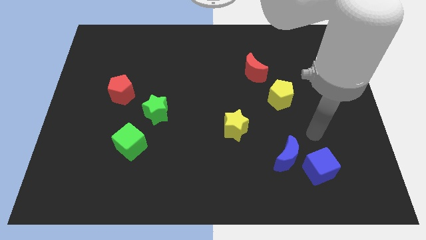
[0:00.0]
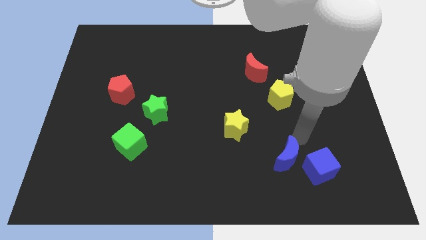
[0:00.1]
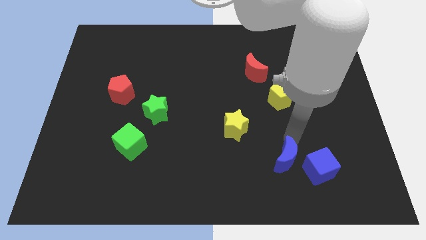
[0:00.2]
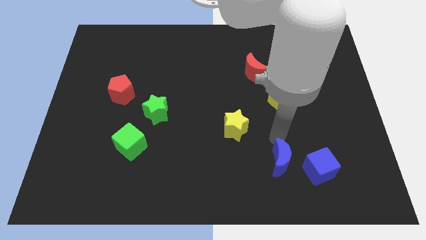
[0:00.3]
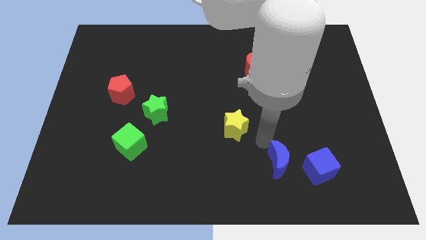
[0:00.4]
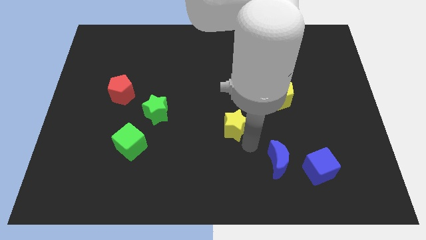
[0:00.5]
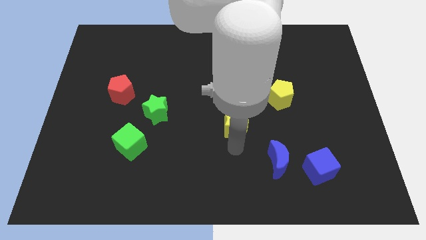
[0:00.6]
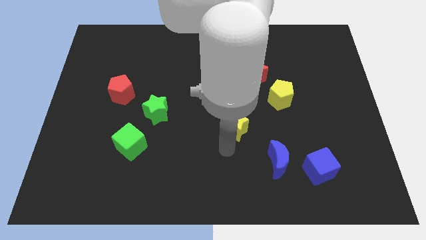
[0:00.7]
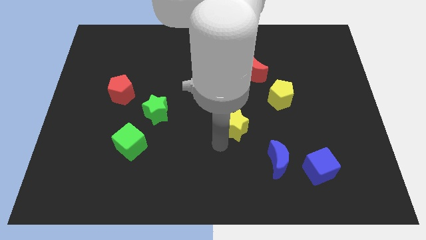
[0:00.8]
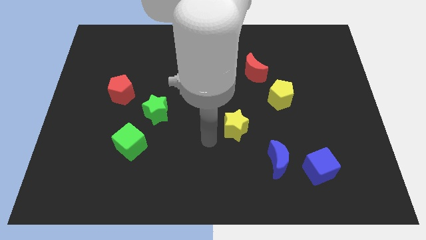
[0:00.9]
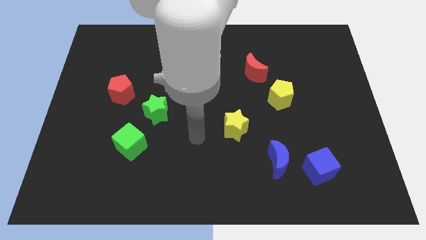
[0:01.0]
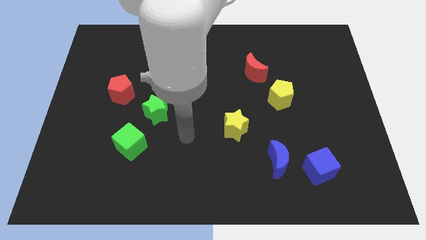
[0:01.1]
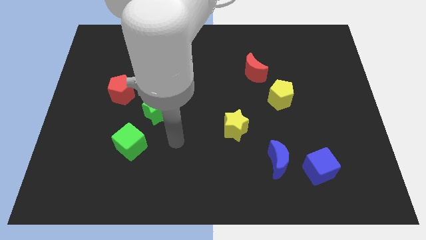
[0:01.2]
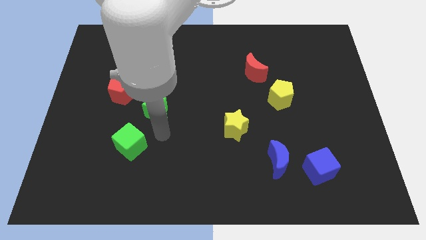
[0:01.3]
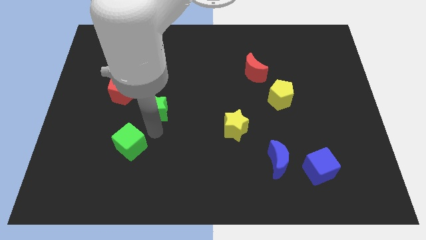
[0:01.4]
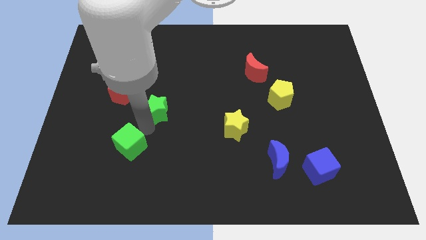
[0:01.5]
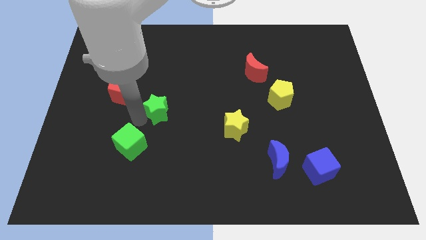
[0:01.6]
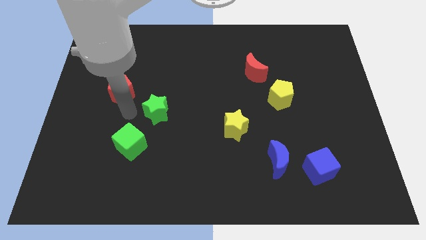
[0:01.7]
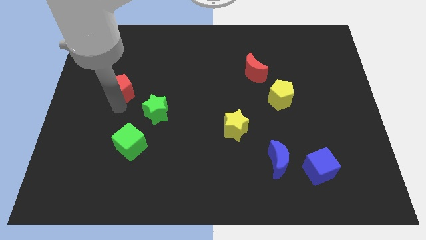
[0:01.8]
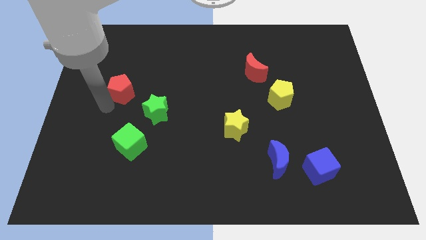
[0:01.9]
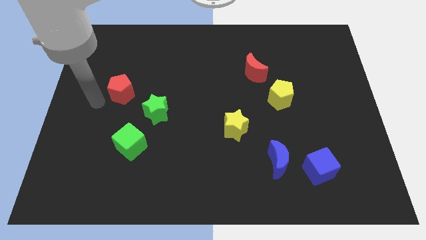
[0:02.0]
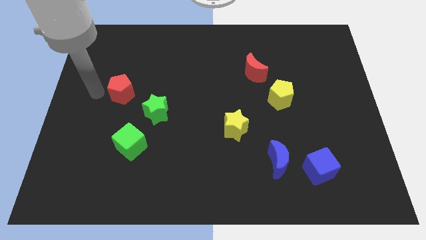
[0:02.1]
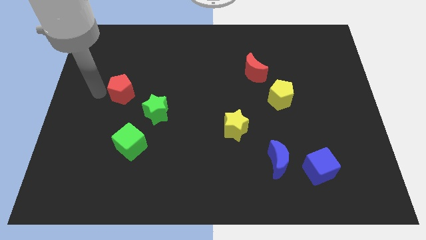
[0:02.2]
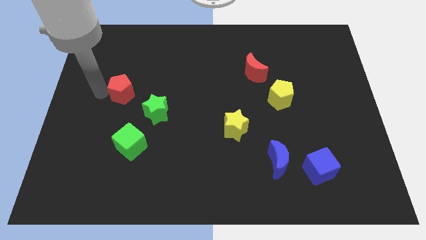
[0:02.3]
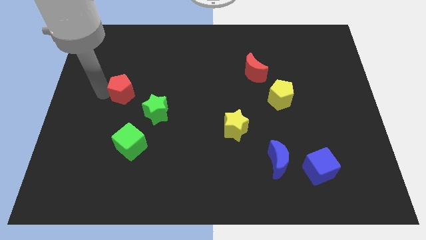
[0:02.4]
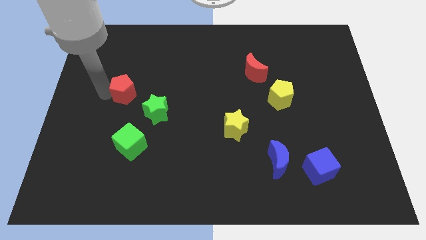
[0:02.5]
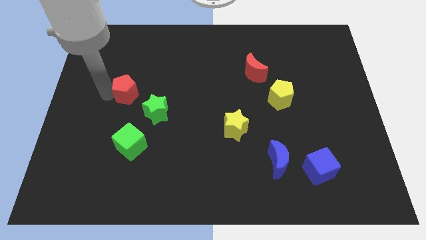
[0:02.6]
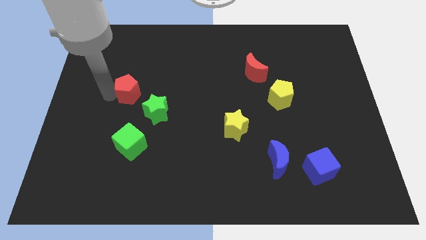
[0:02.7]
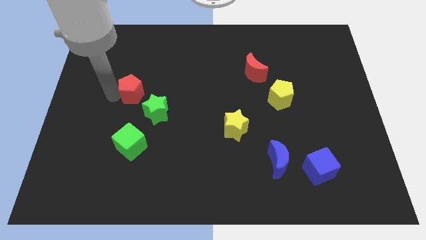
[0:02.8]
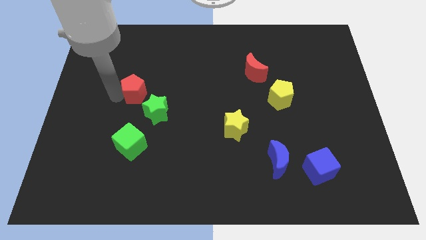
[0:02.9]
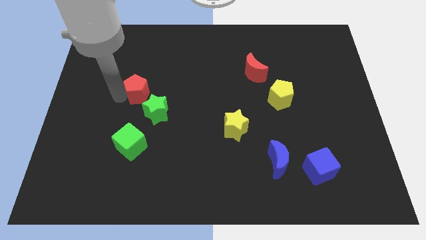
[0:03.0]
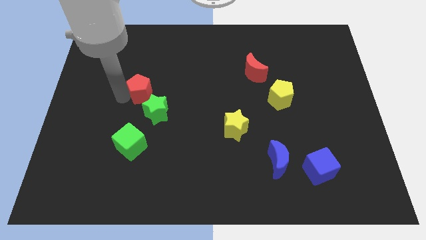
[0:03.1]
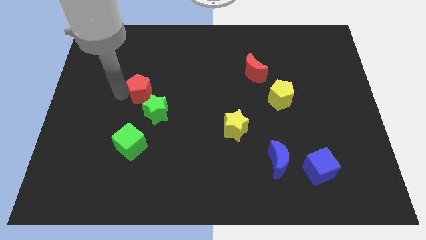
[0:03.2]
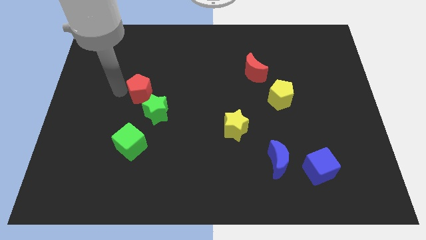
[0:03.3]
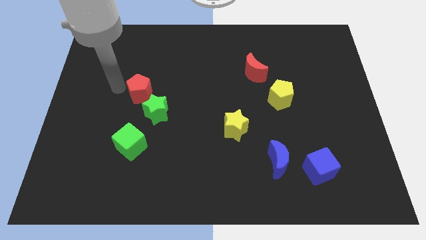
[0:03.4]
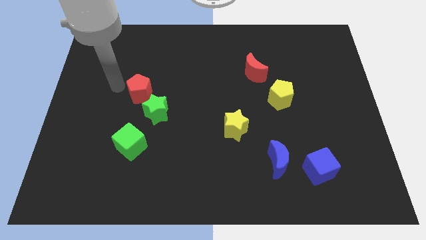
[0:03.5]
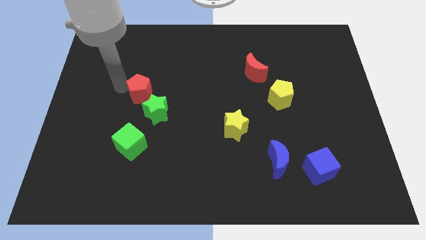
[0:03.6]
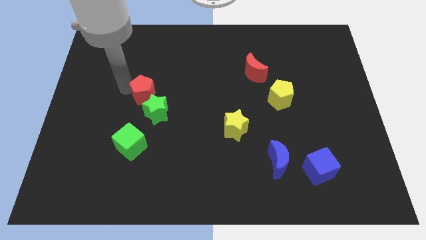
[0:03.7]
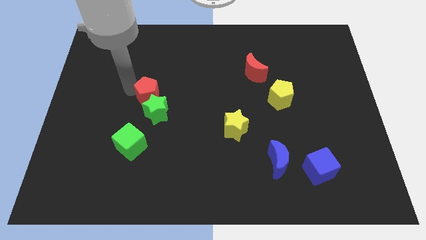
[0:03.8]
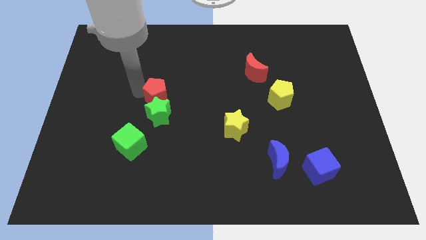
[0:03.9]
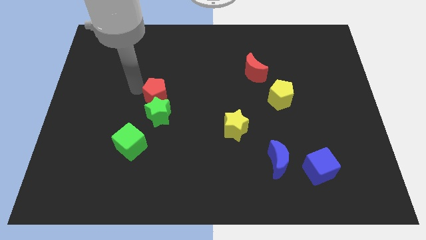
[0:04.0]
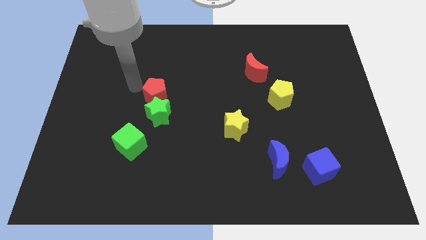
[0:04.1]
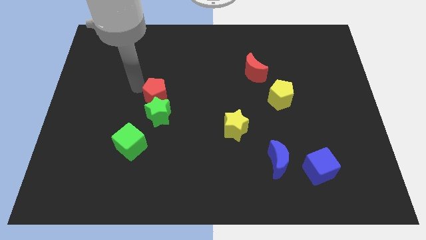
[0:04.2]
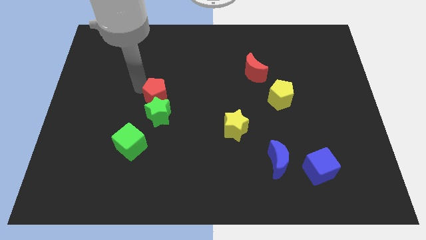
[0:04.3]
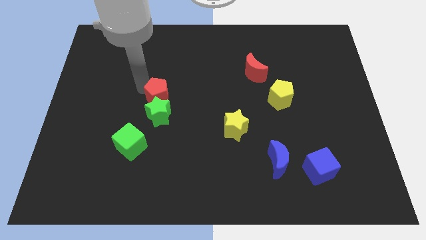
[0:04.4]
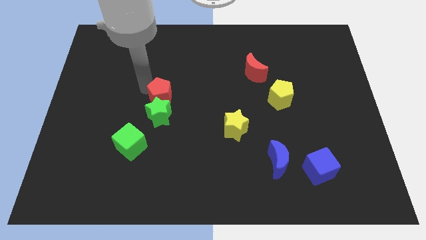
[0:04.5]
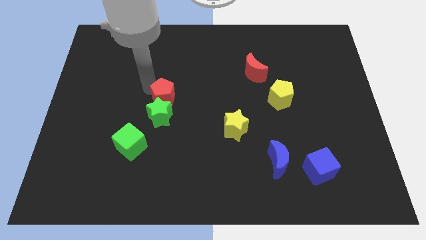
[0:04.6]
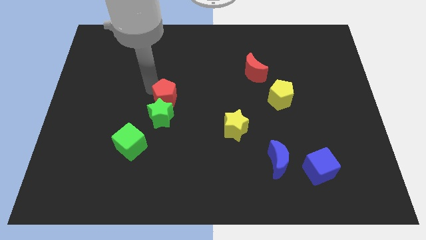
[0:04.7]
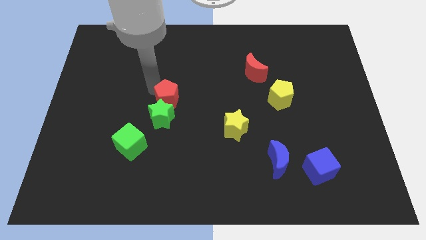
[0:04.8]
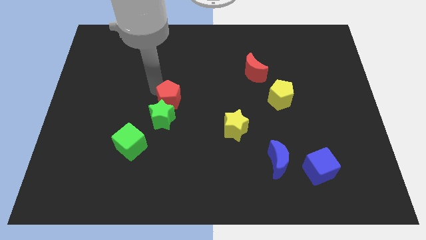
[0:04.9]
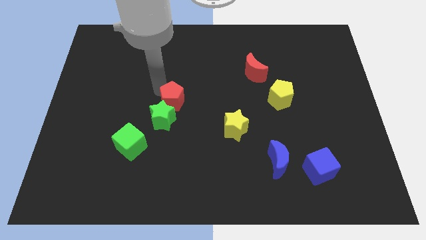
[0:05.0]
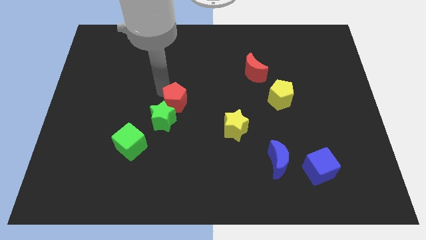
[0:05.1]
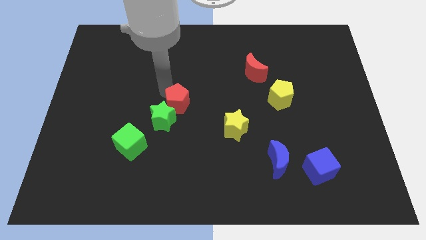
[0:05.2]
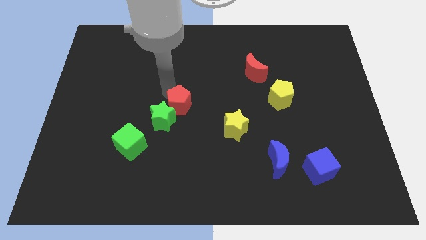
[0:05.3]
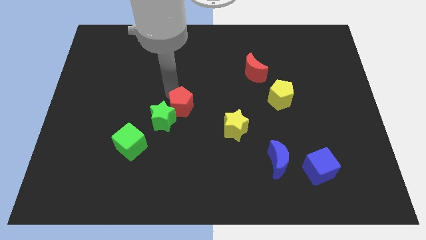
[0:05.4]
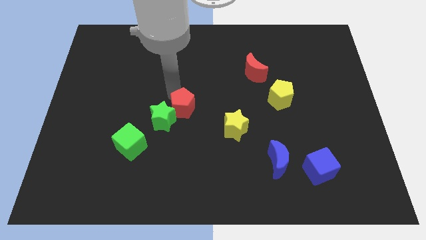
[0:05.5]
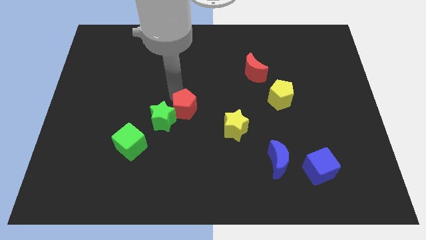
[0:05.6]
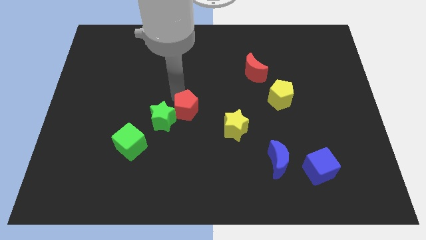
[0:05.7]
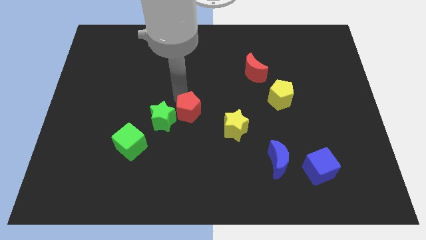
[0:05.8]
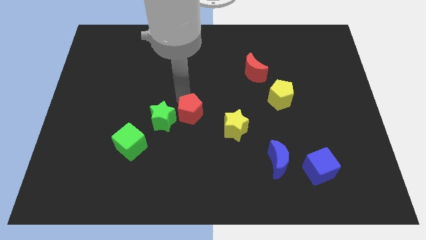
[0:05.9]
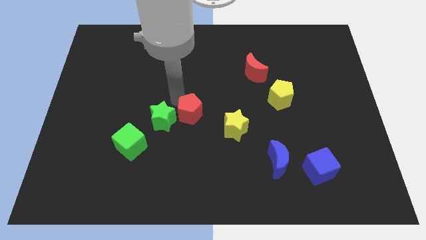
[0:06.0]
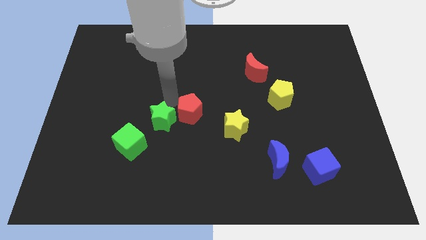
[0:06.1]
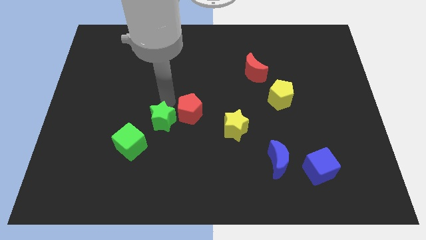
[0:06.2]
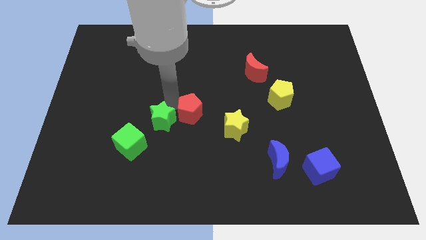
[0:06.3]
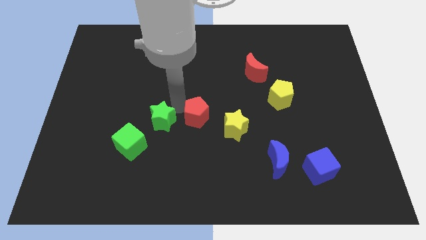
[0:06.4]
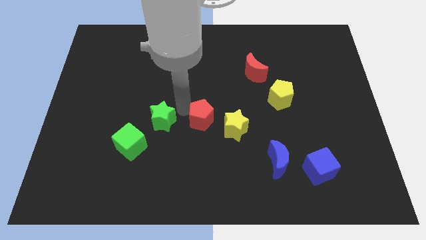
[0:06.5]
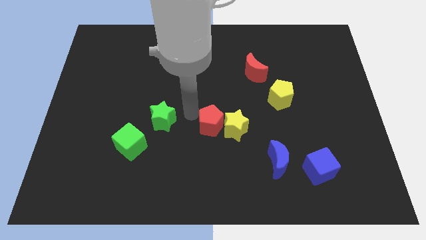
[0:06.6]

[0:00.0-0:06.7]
push the red pentagon close to the yellow star
